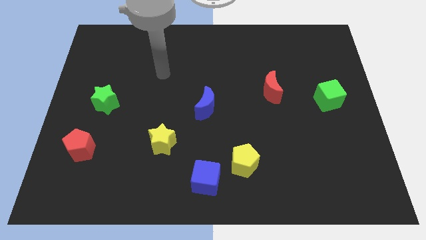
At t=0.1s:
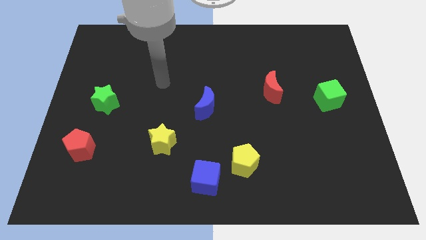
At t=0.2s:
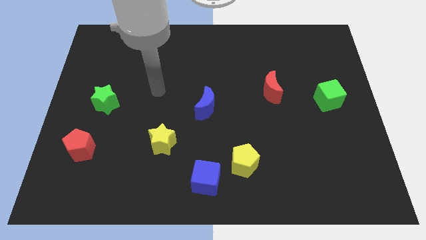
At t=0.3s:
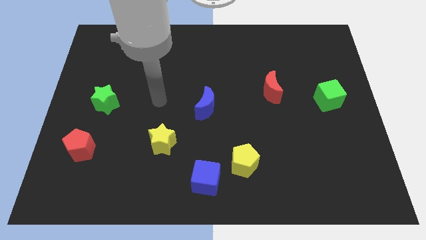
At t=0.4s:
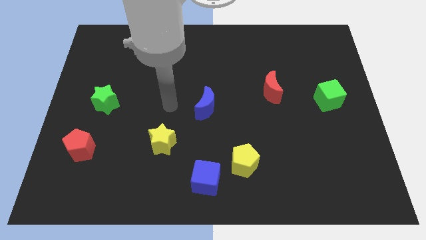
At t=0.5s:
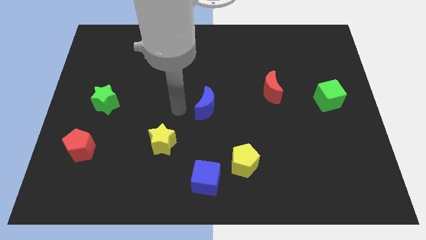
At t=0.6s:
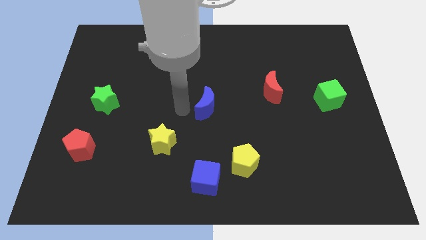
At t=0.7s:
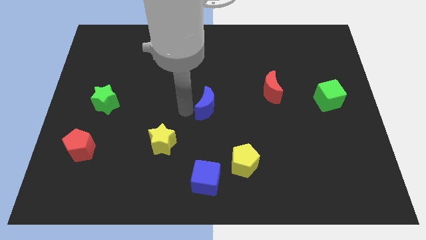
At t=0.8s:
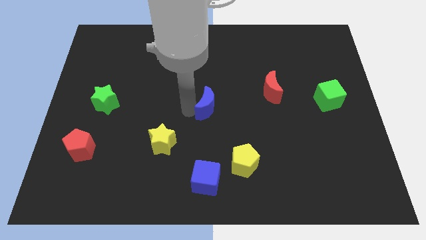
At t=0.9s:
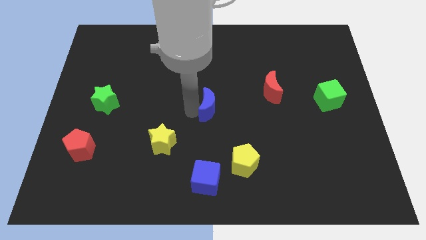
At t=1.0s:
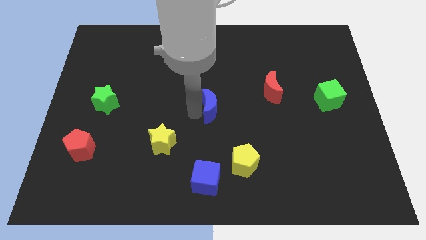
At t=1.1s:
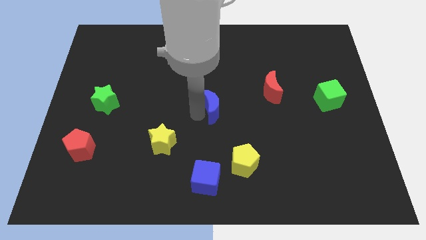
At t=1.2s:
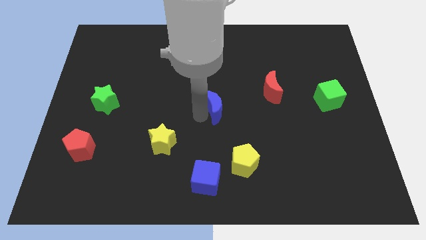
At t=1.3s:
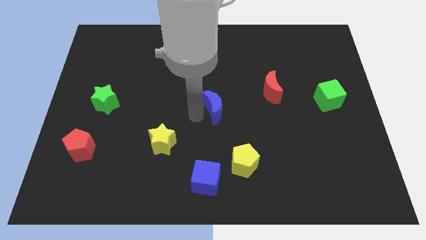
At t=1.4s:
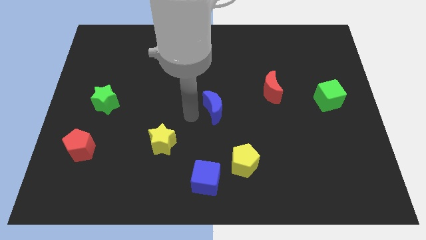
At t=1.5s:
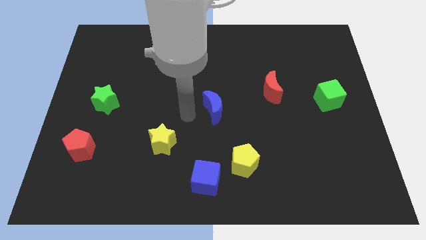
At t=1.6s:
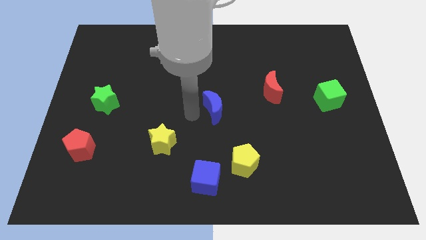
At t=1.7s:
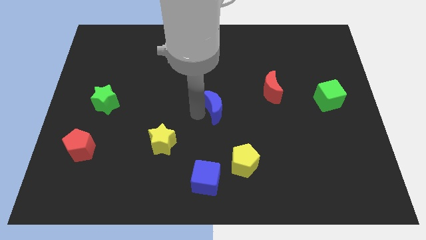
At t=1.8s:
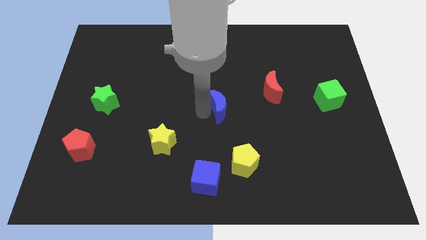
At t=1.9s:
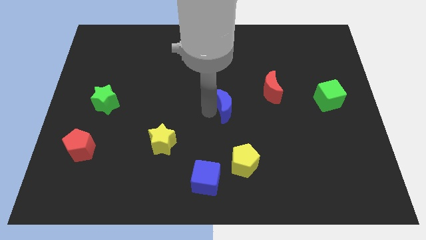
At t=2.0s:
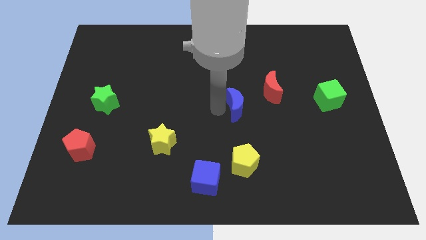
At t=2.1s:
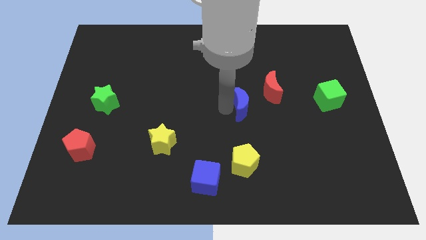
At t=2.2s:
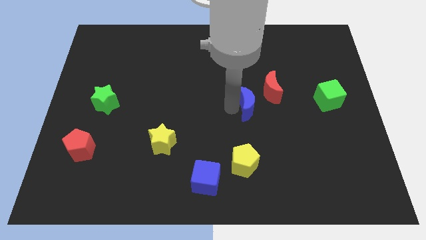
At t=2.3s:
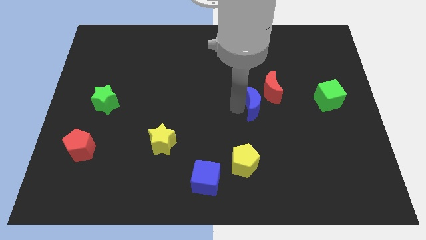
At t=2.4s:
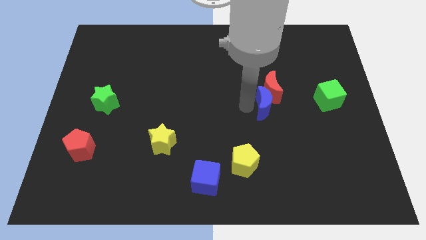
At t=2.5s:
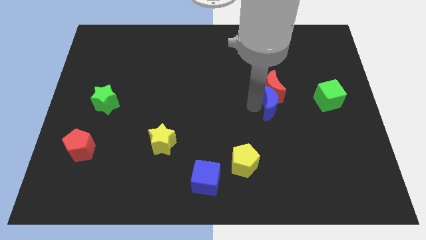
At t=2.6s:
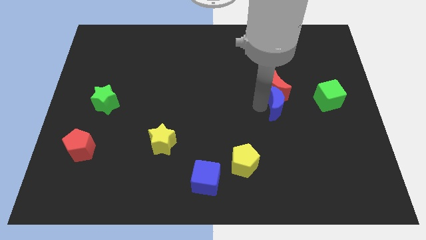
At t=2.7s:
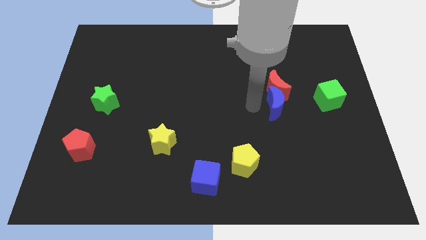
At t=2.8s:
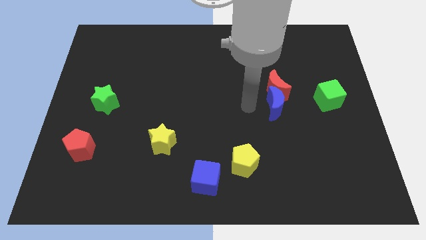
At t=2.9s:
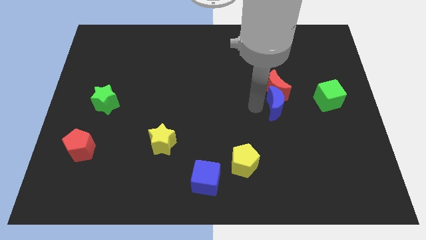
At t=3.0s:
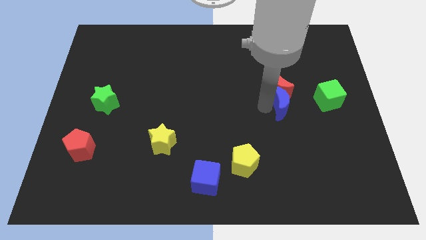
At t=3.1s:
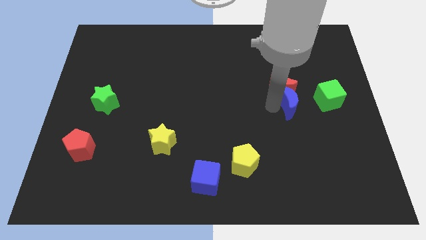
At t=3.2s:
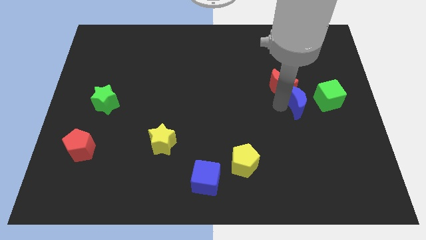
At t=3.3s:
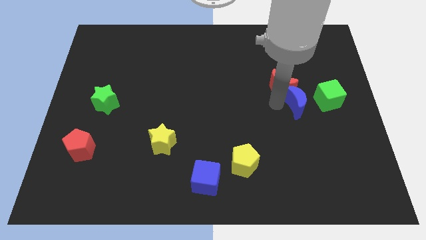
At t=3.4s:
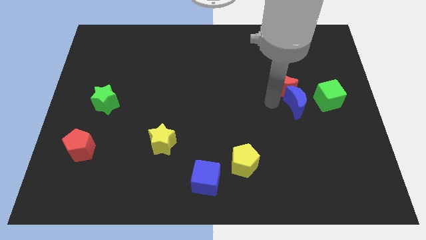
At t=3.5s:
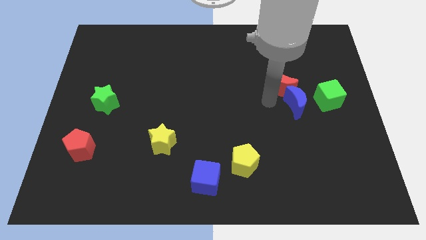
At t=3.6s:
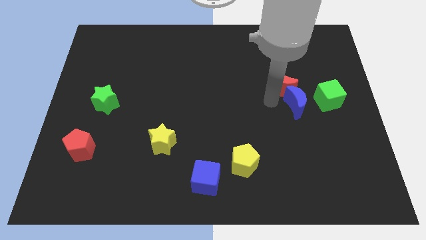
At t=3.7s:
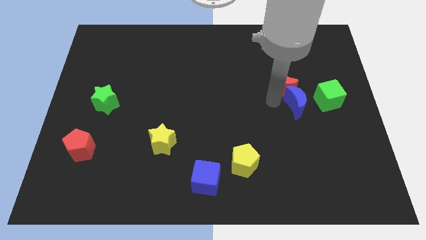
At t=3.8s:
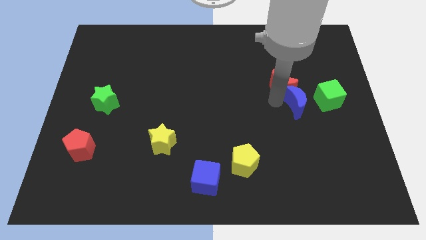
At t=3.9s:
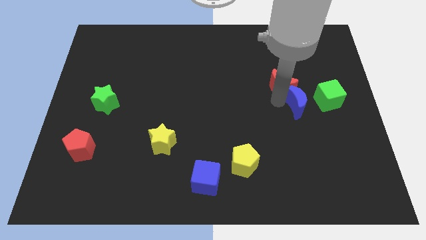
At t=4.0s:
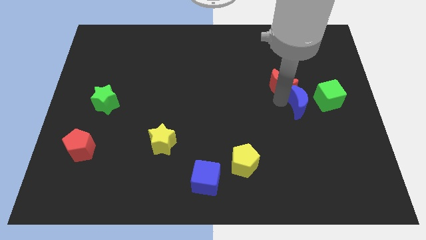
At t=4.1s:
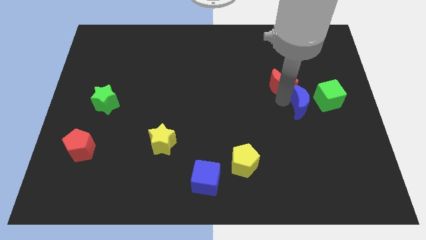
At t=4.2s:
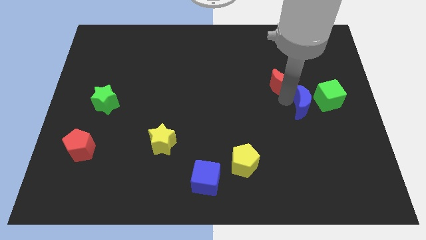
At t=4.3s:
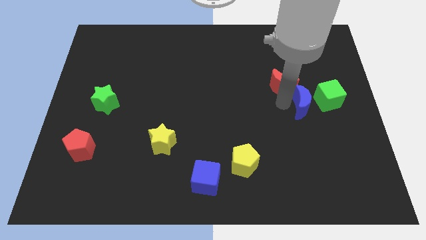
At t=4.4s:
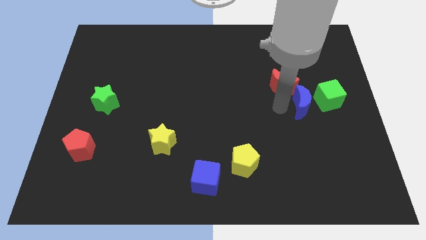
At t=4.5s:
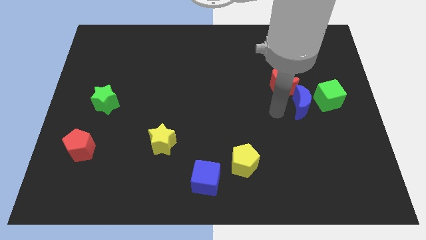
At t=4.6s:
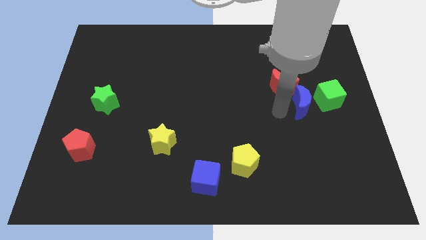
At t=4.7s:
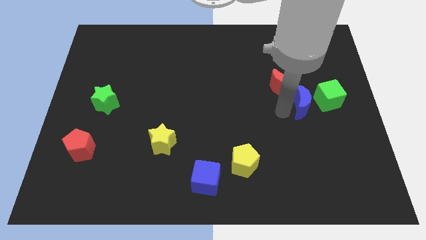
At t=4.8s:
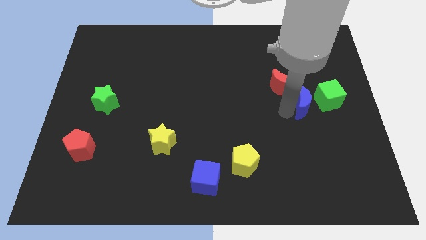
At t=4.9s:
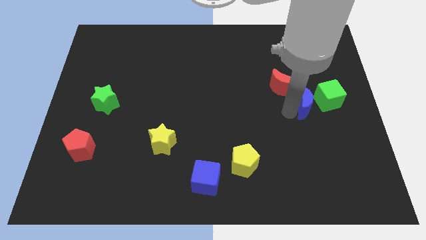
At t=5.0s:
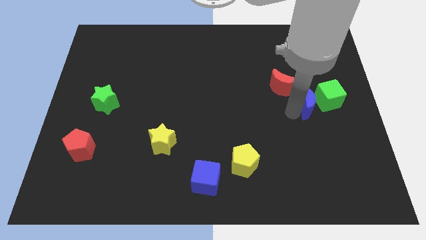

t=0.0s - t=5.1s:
push the blue moon to the green cube

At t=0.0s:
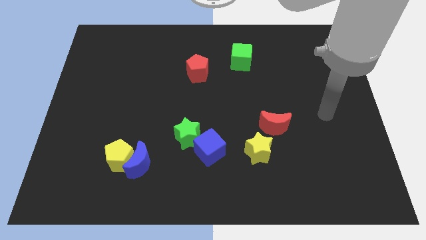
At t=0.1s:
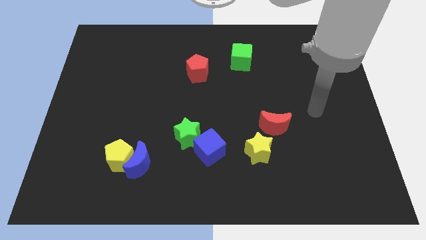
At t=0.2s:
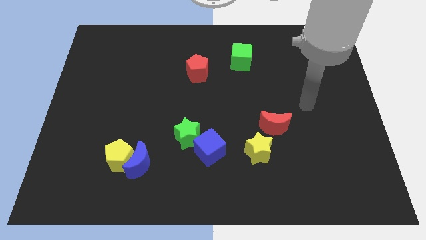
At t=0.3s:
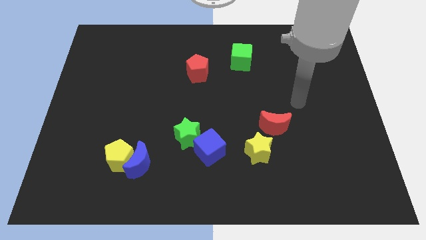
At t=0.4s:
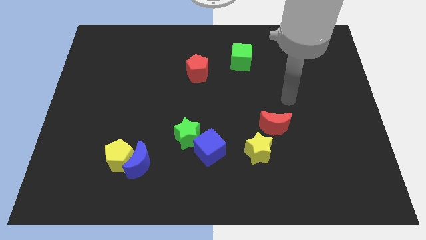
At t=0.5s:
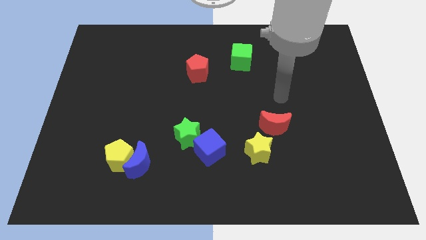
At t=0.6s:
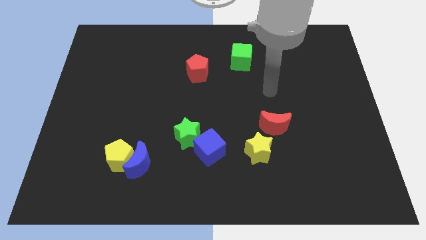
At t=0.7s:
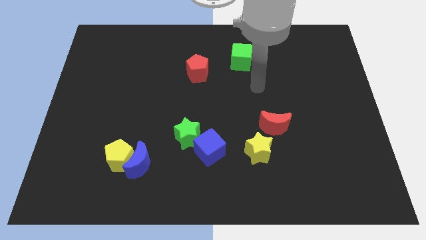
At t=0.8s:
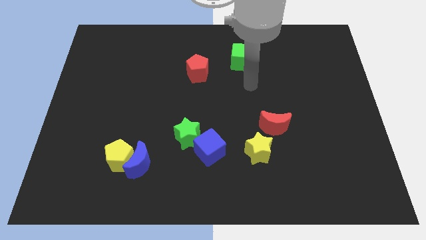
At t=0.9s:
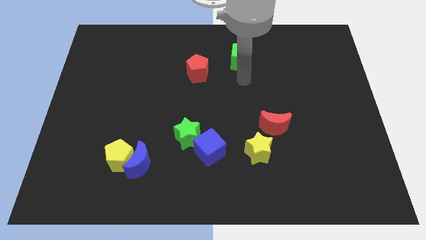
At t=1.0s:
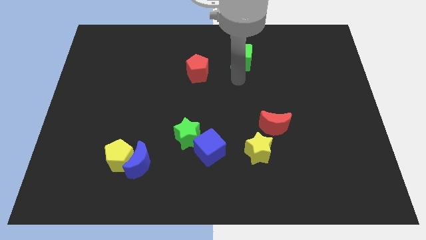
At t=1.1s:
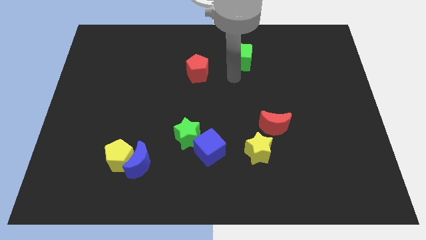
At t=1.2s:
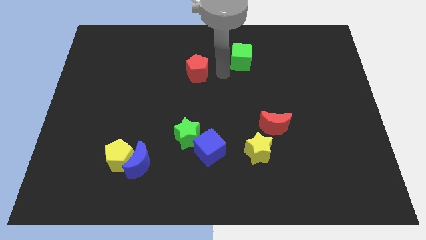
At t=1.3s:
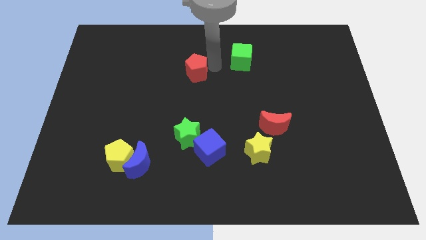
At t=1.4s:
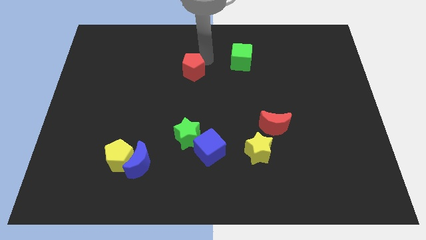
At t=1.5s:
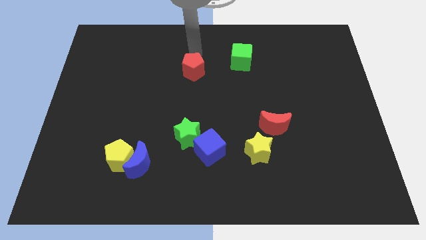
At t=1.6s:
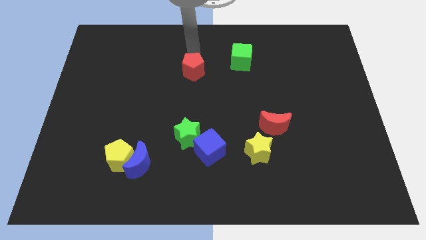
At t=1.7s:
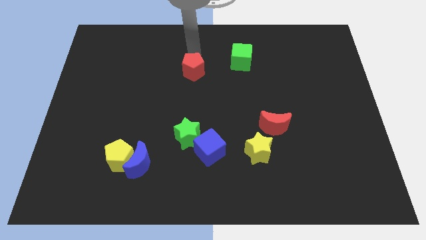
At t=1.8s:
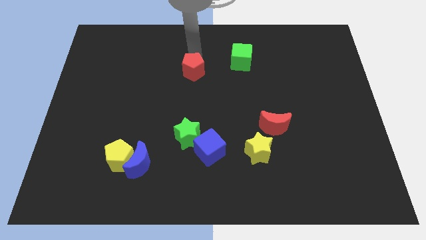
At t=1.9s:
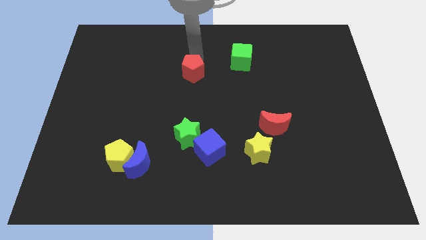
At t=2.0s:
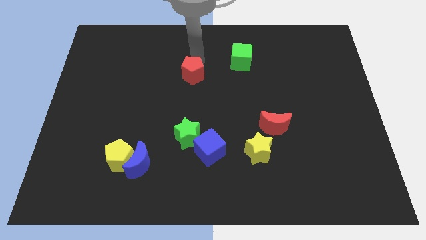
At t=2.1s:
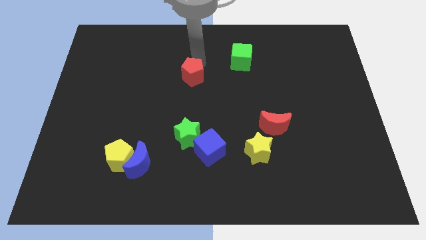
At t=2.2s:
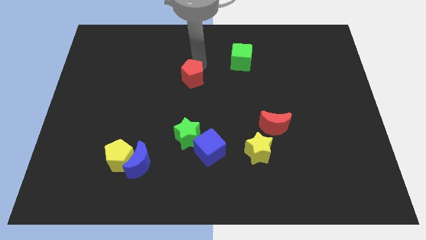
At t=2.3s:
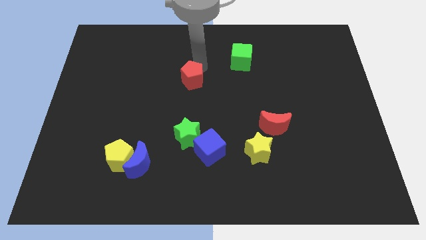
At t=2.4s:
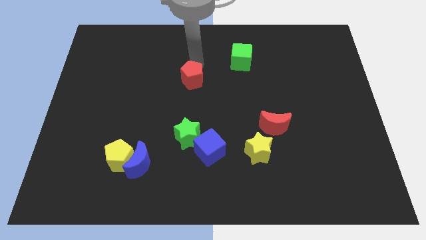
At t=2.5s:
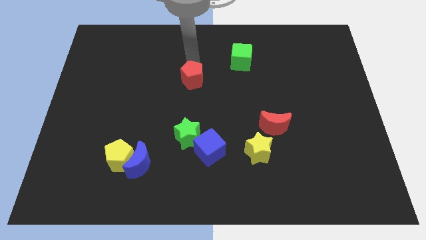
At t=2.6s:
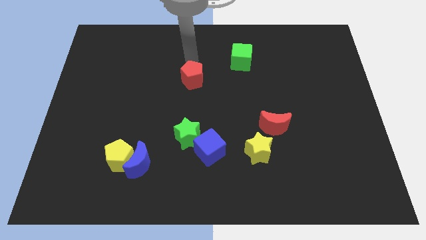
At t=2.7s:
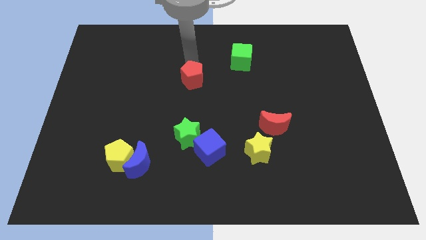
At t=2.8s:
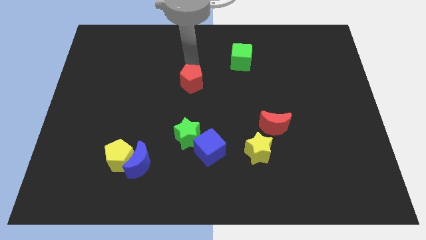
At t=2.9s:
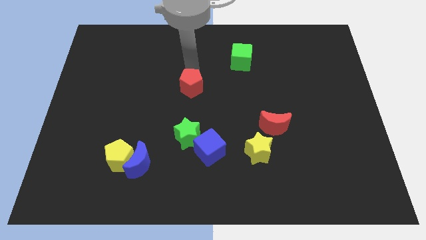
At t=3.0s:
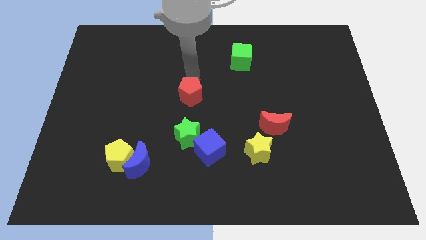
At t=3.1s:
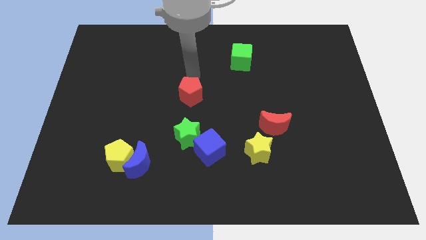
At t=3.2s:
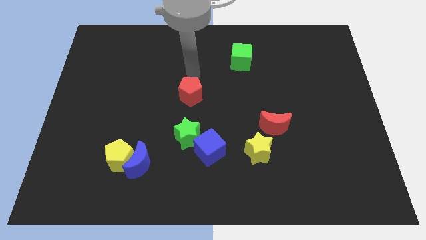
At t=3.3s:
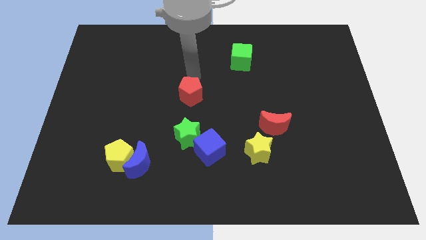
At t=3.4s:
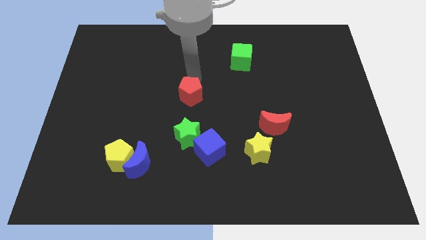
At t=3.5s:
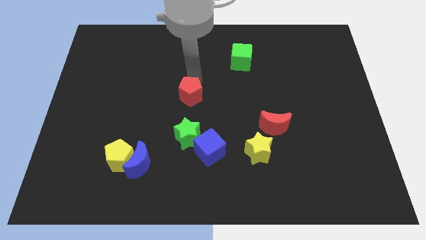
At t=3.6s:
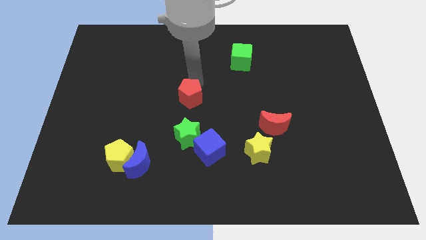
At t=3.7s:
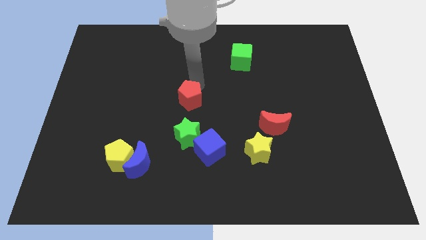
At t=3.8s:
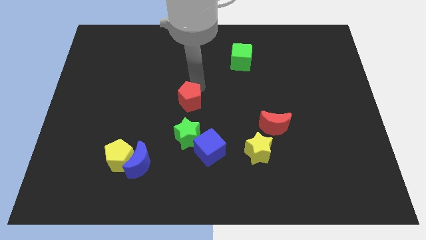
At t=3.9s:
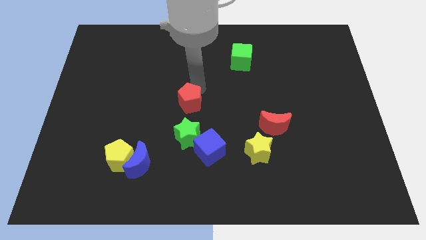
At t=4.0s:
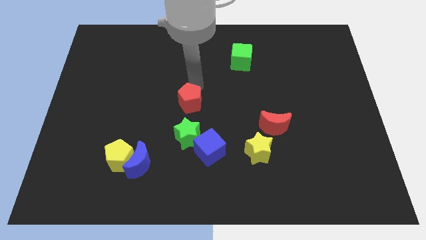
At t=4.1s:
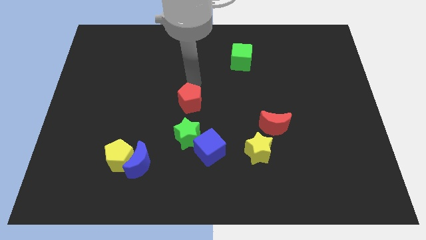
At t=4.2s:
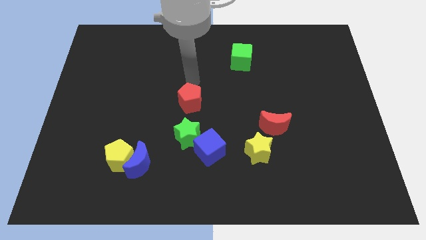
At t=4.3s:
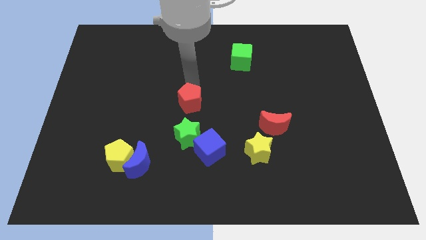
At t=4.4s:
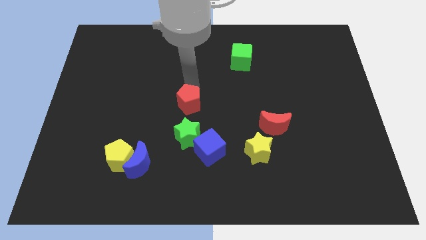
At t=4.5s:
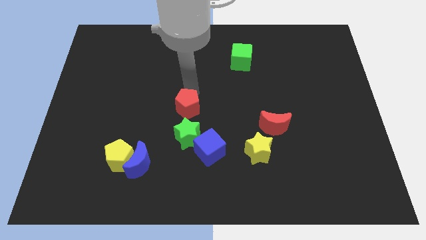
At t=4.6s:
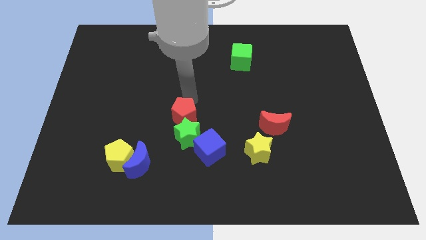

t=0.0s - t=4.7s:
move the red pentagon next to the green star
